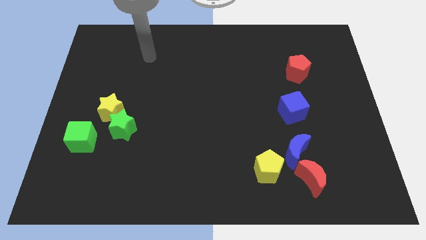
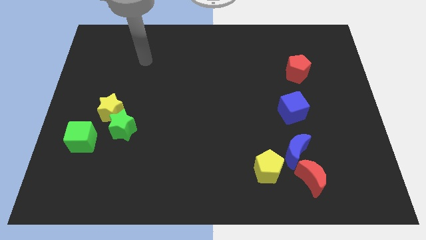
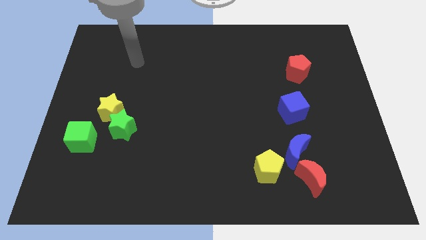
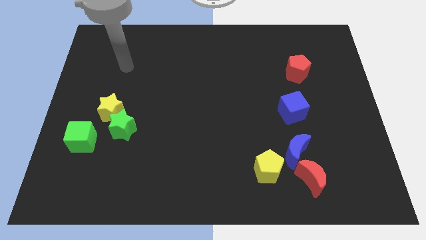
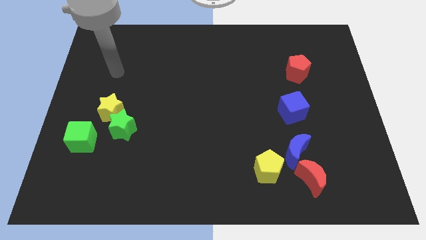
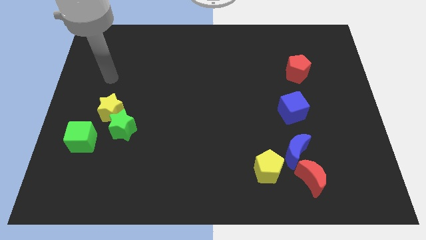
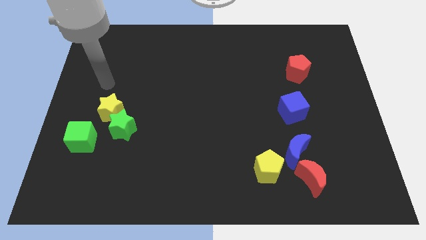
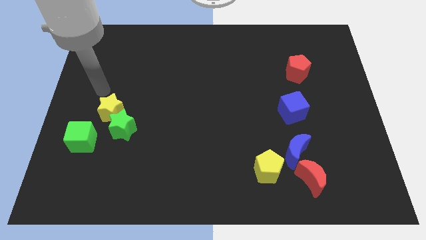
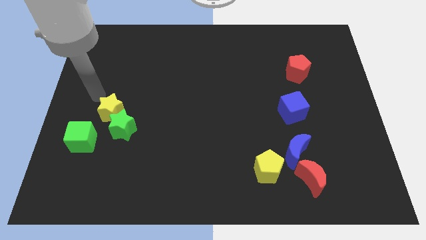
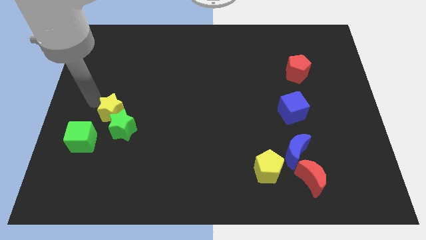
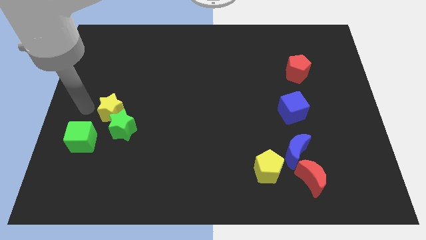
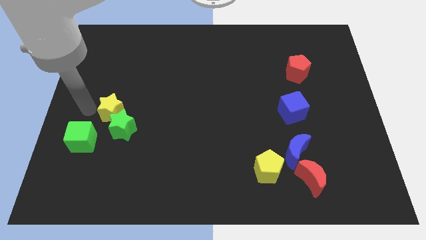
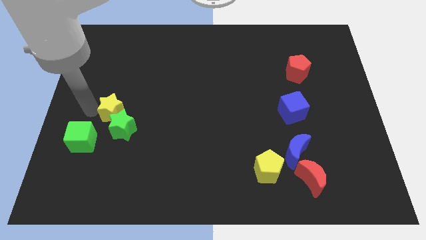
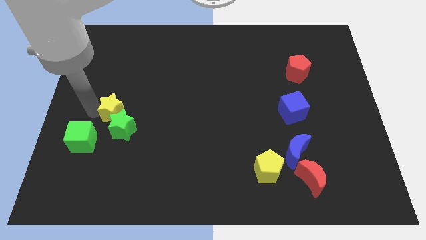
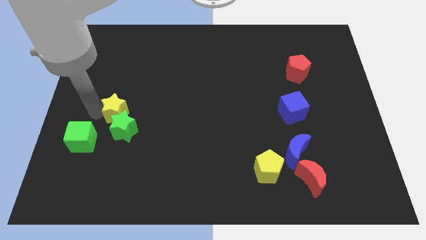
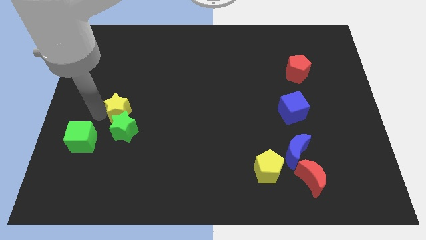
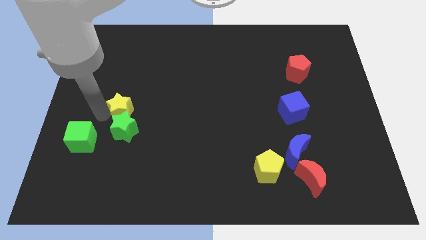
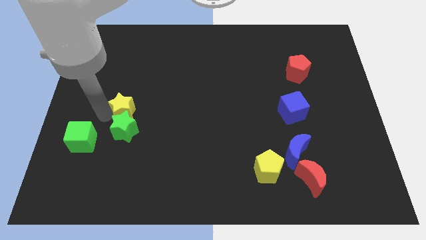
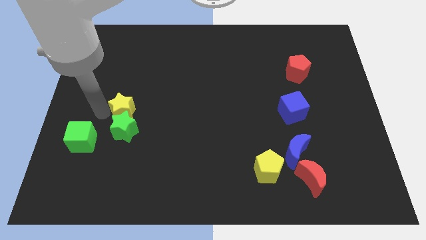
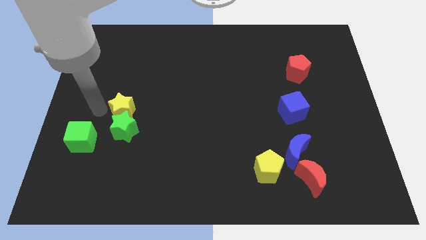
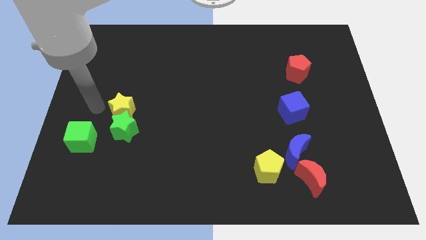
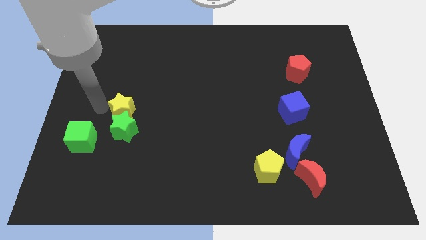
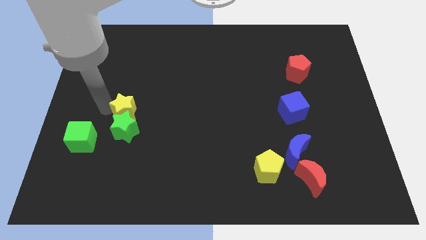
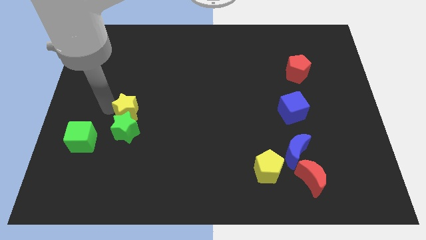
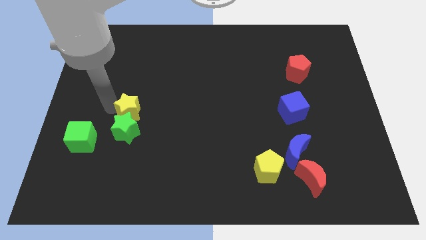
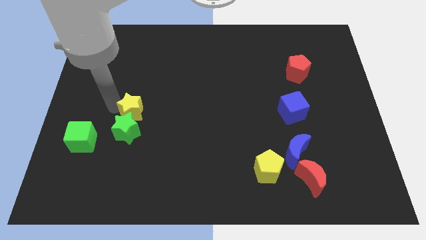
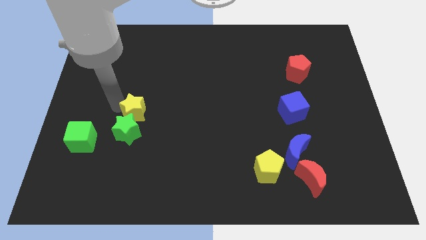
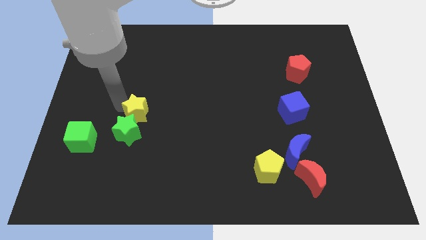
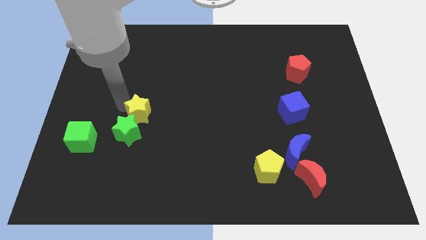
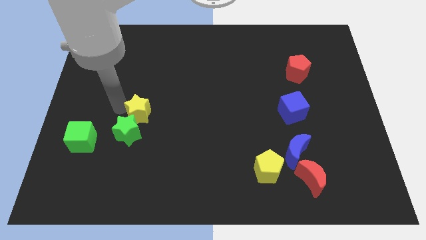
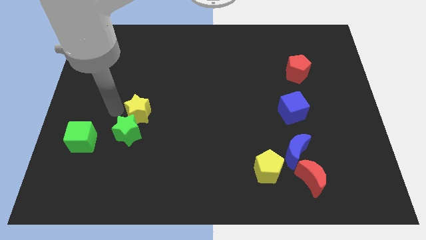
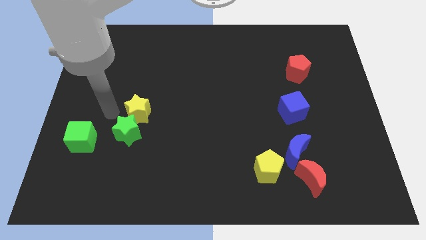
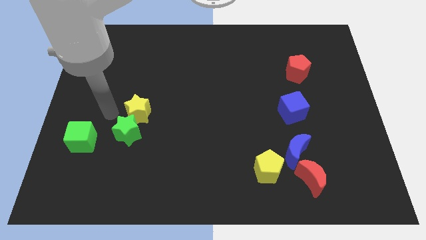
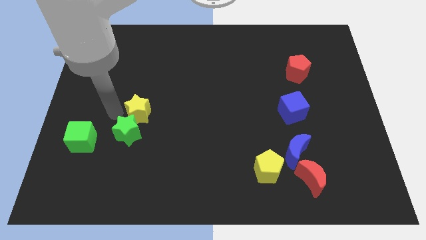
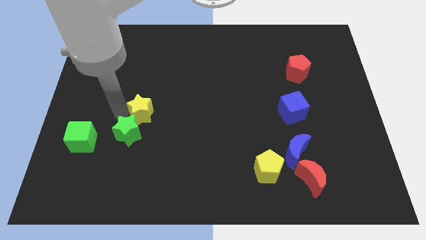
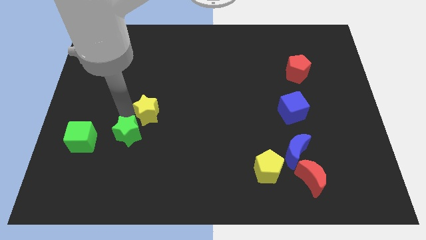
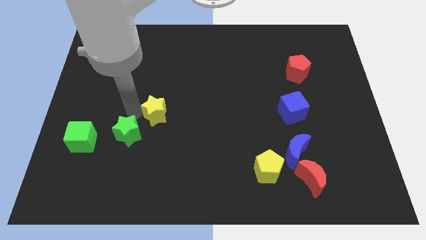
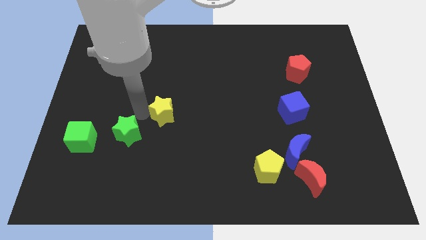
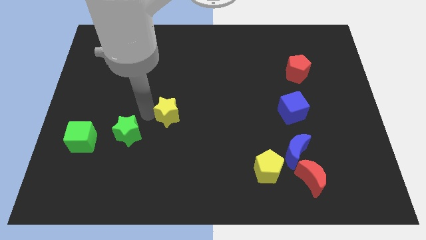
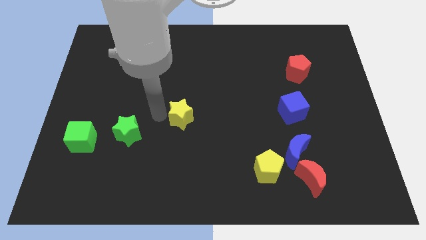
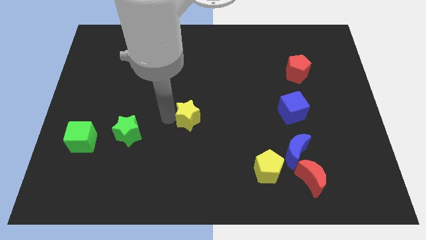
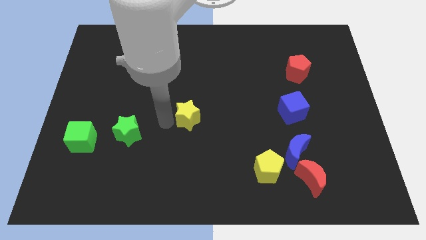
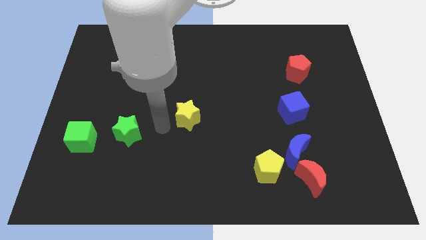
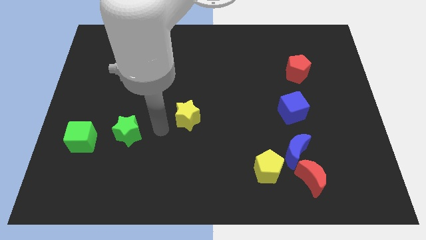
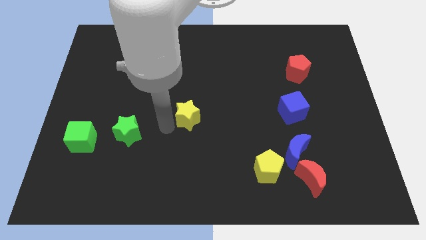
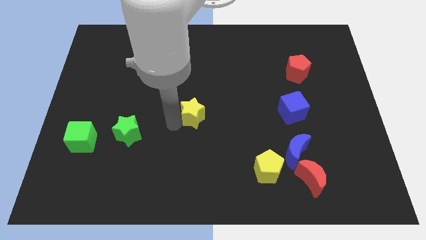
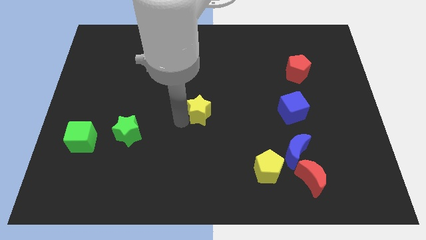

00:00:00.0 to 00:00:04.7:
push the yellow star right

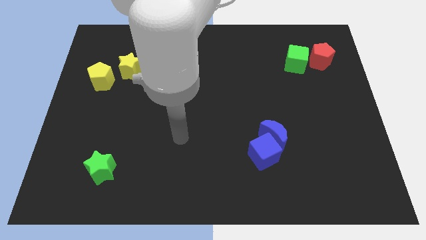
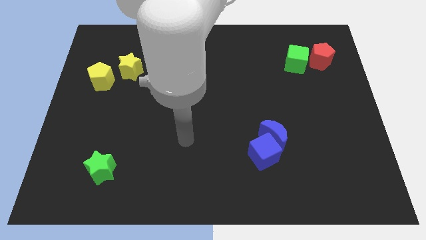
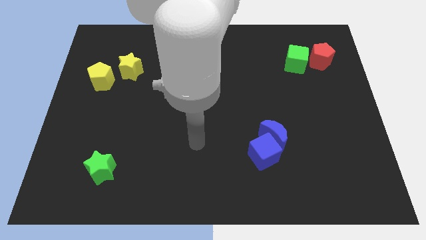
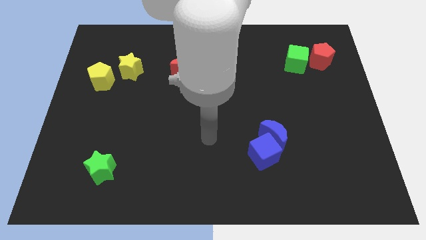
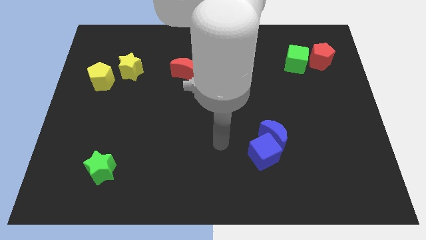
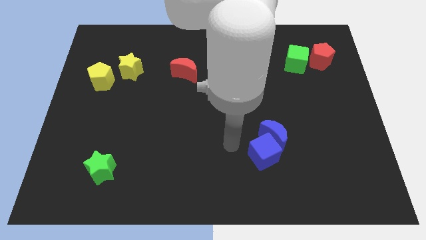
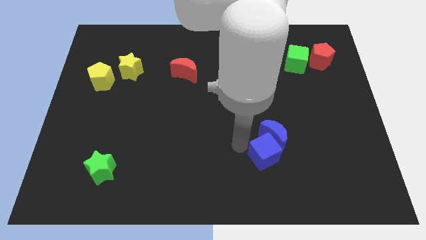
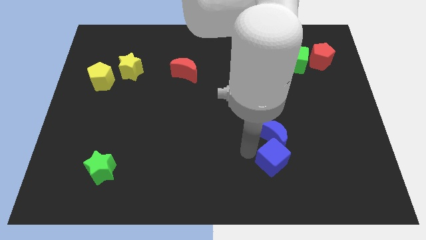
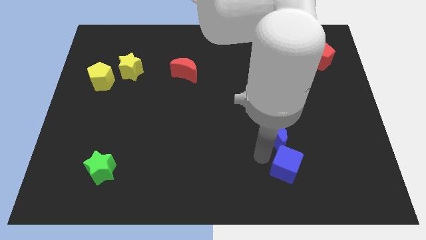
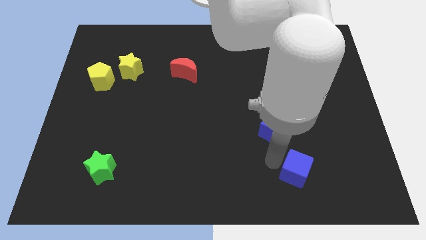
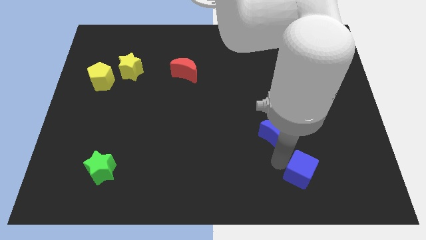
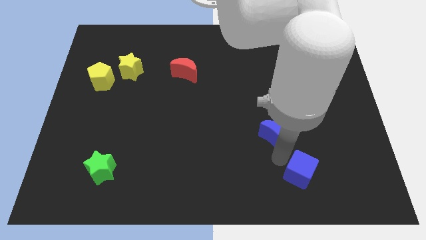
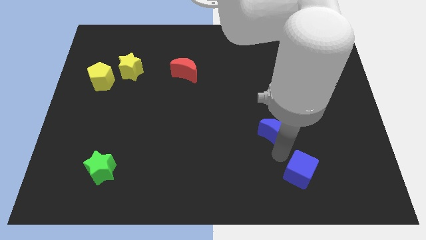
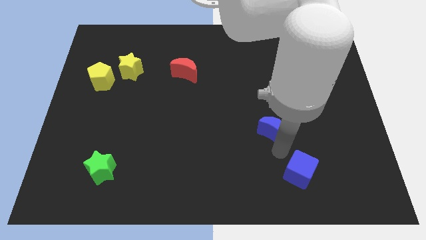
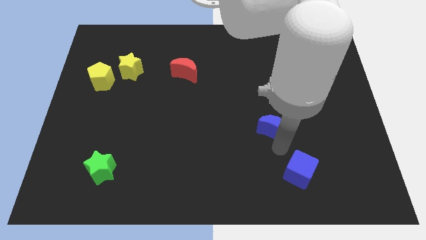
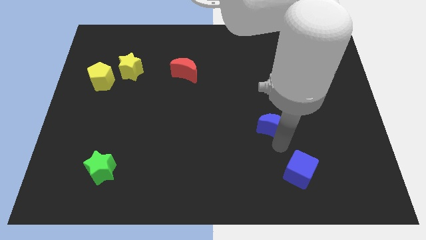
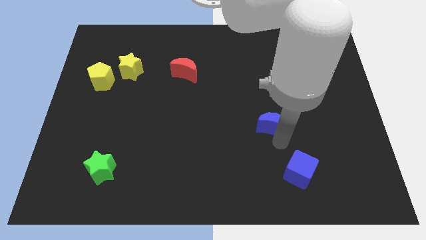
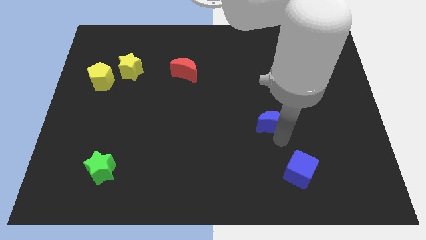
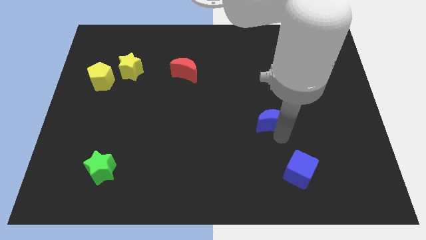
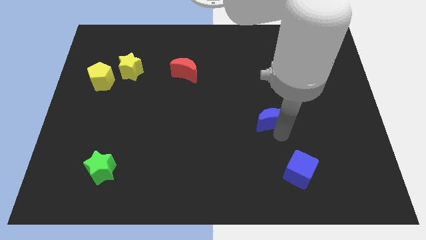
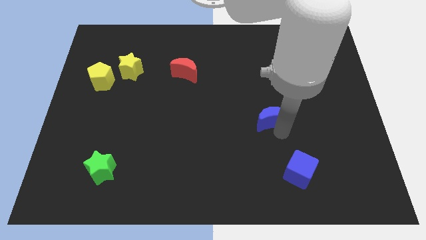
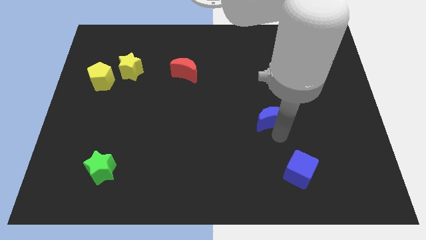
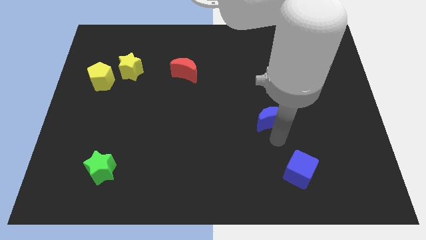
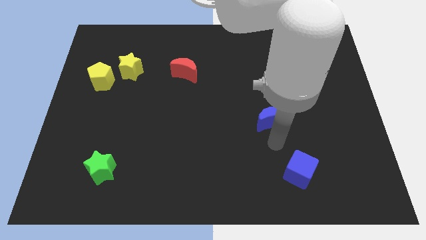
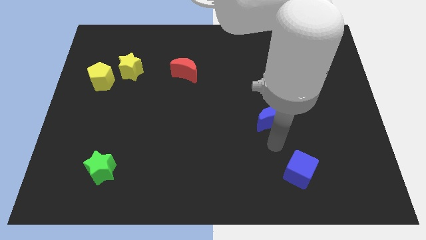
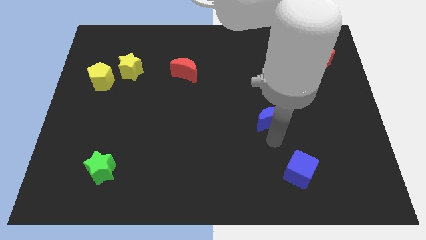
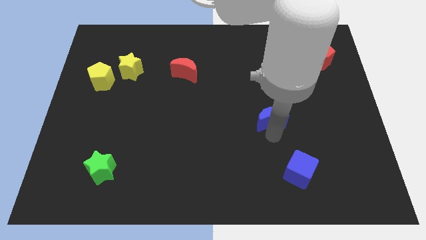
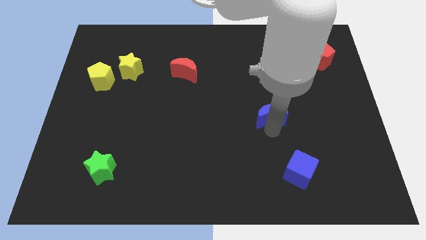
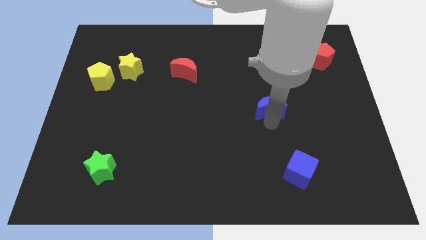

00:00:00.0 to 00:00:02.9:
slide the blue moon a little bit upwards

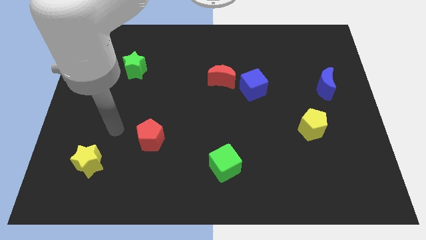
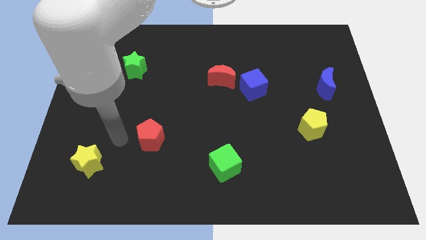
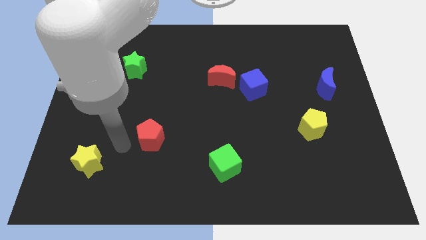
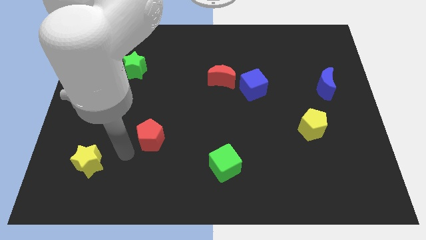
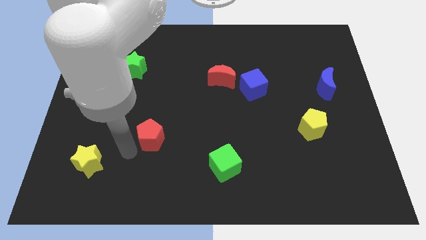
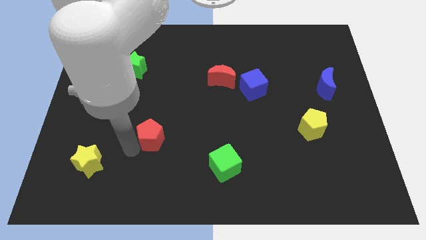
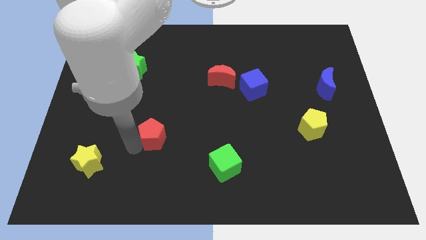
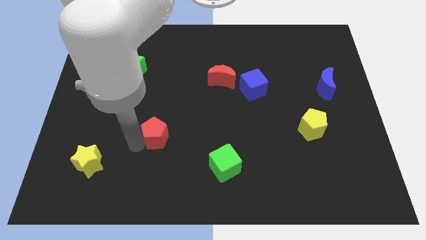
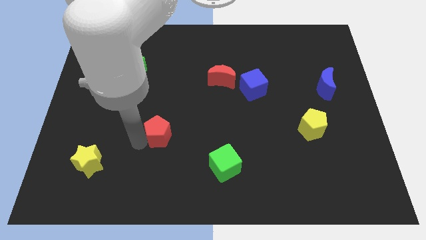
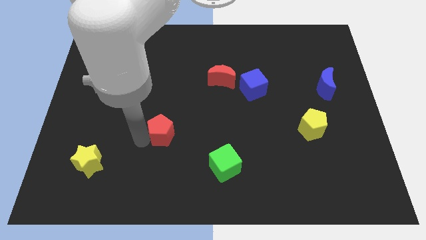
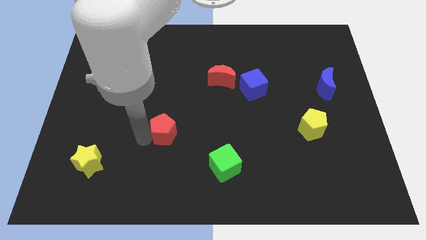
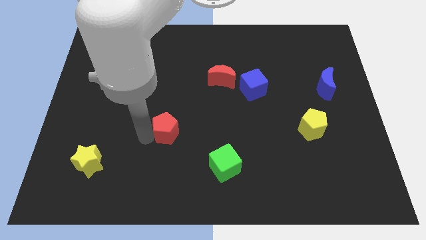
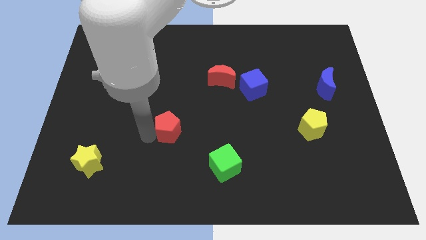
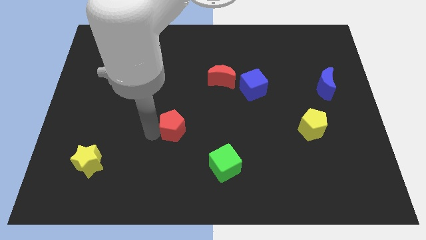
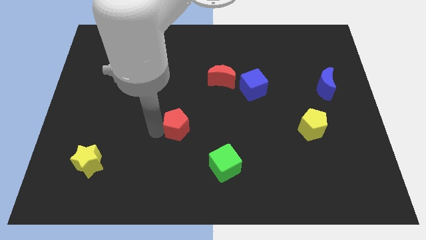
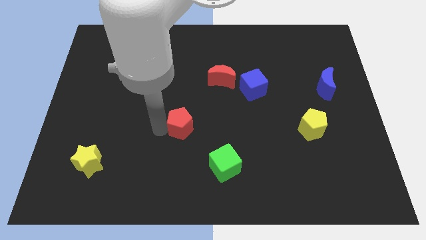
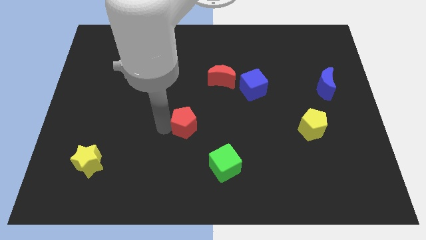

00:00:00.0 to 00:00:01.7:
slightly slide the red pentagon up and right diagonally
